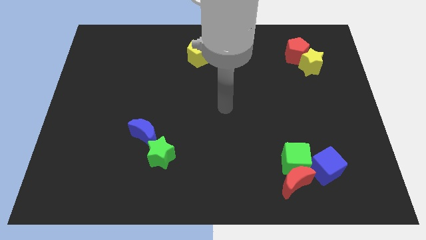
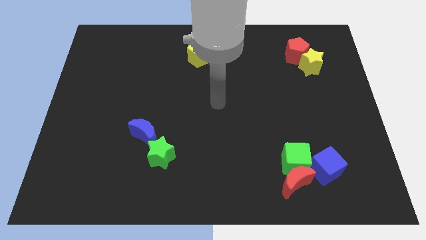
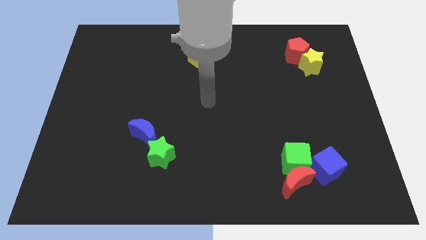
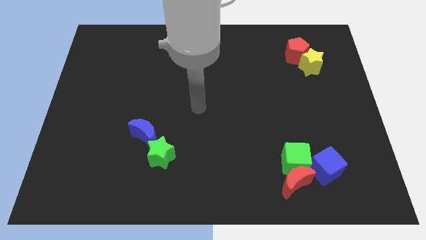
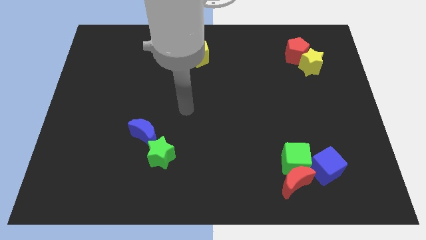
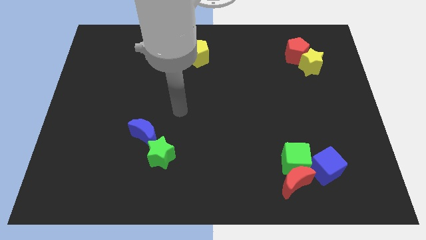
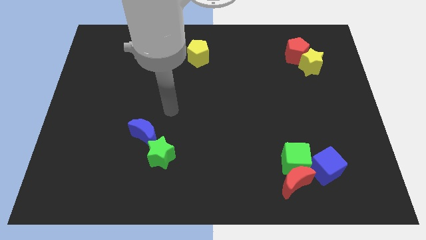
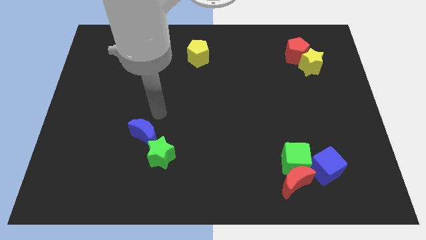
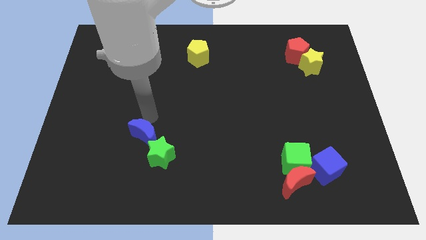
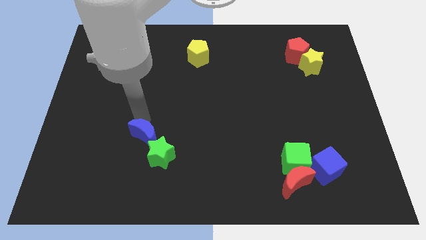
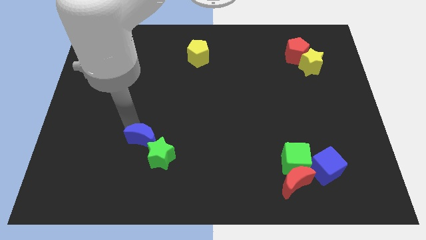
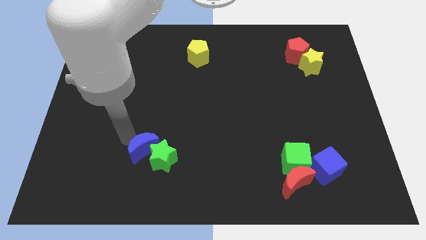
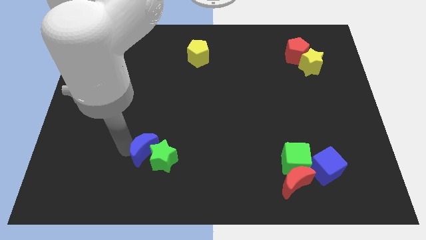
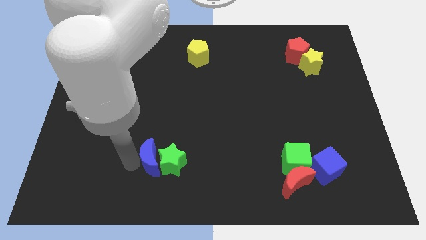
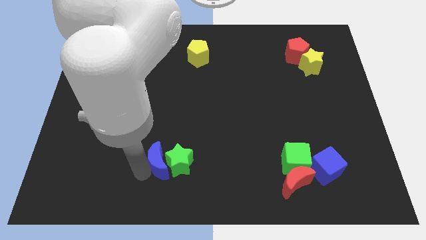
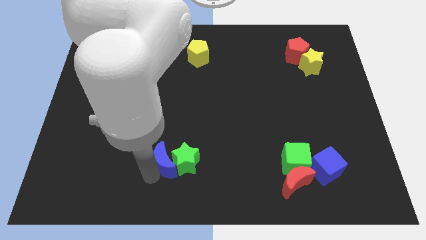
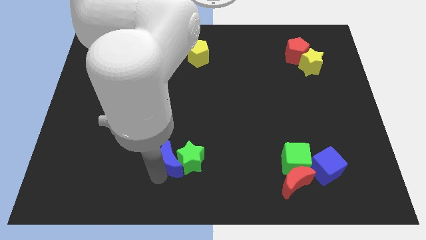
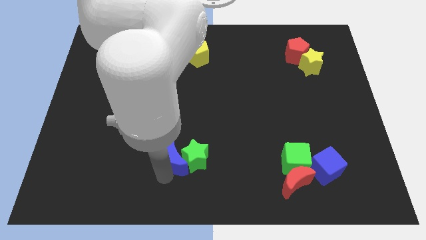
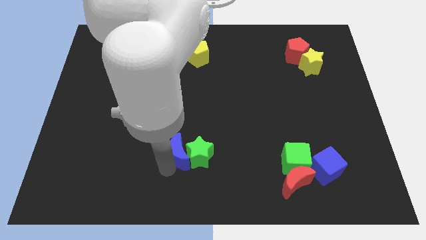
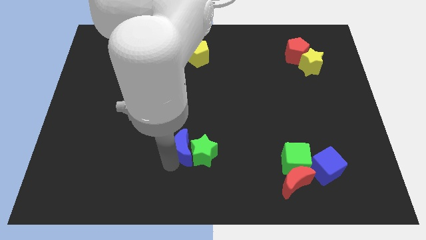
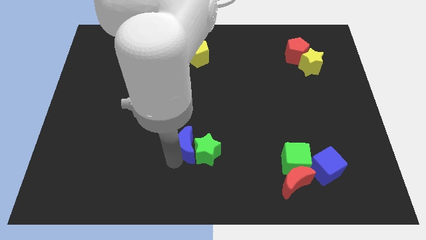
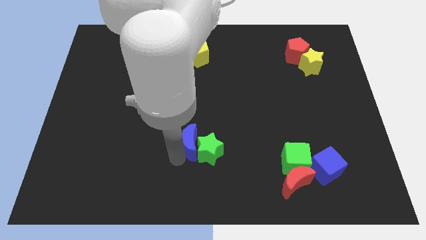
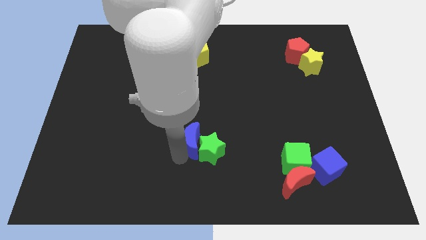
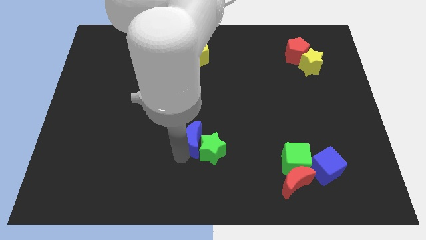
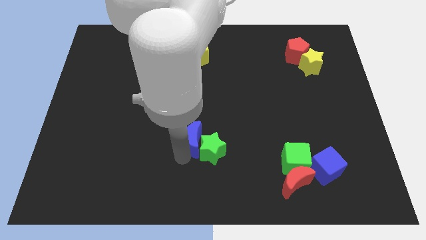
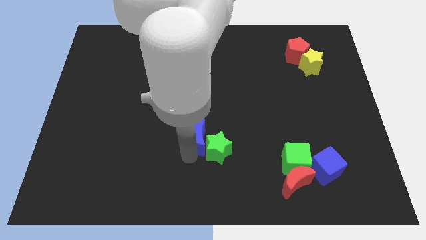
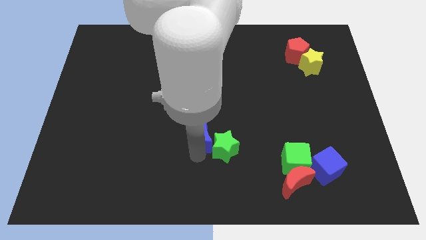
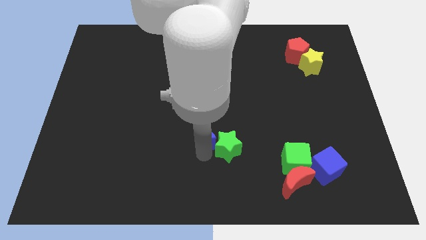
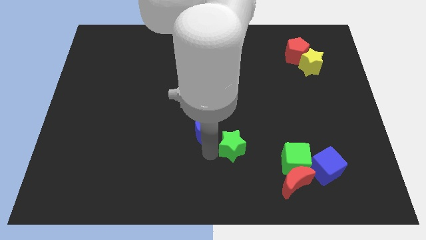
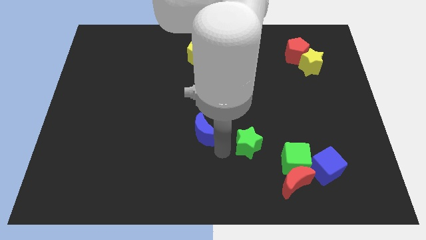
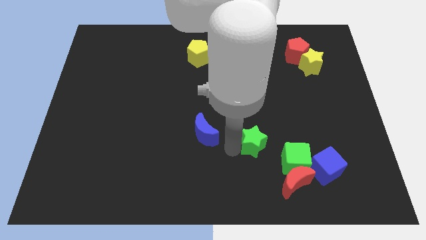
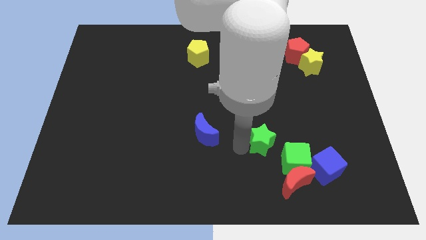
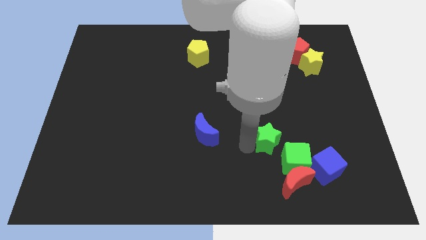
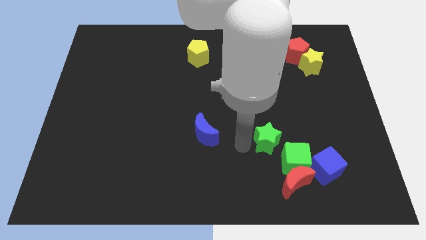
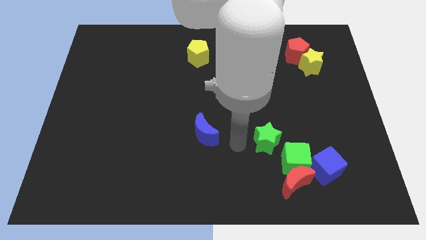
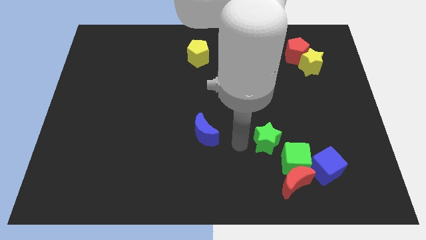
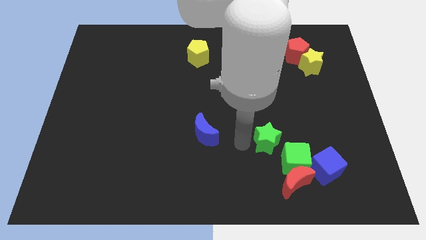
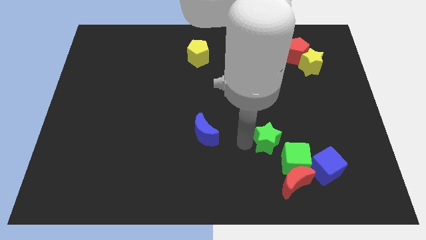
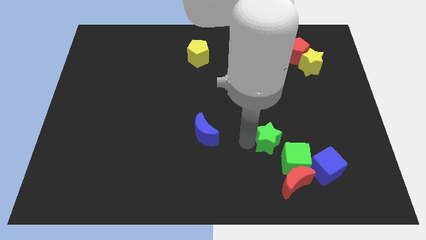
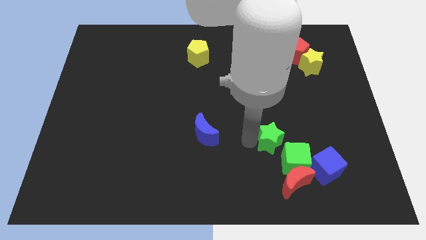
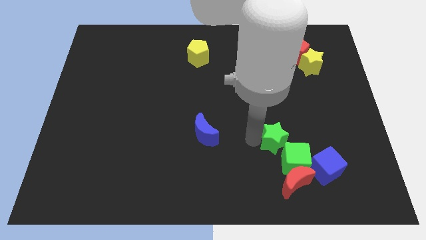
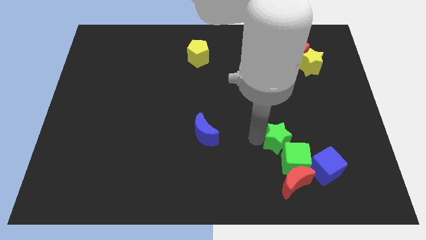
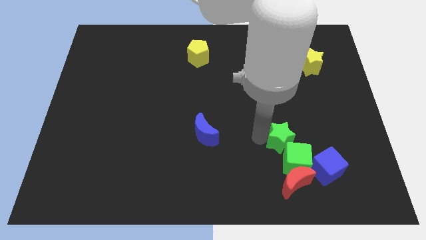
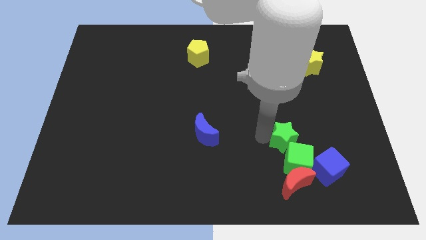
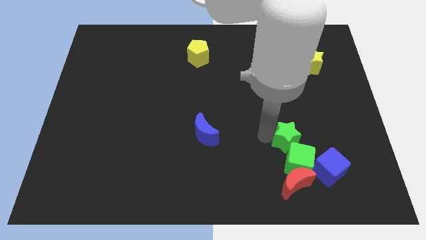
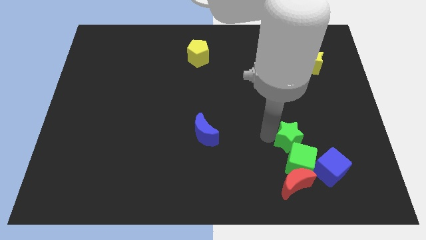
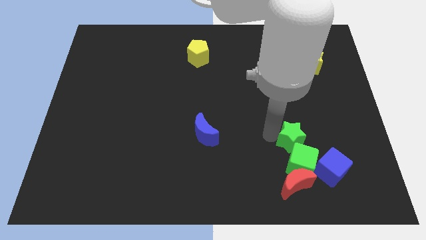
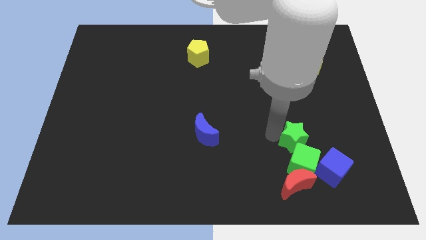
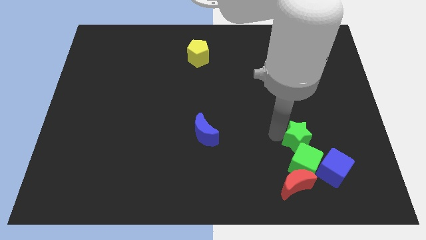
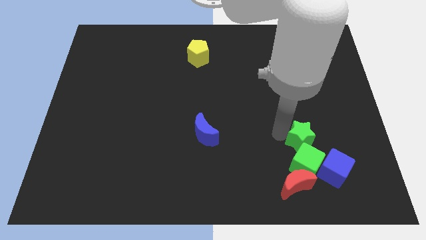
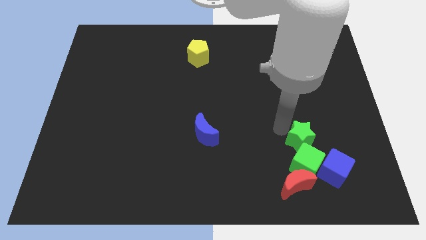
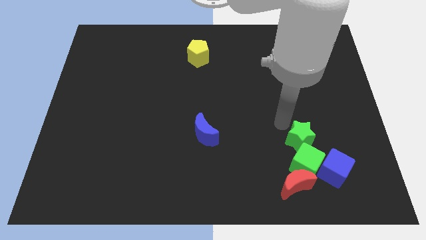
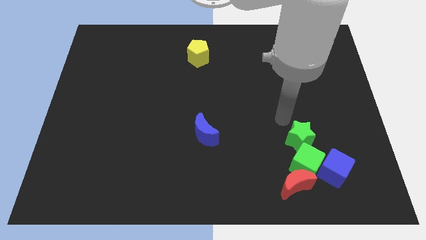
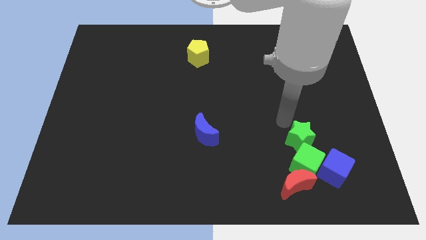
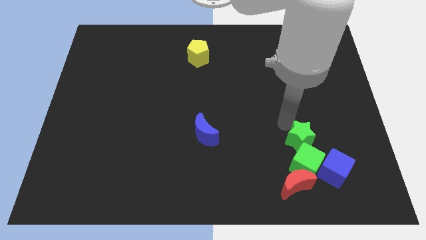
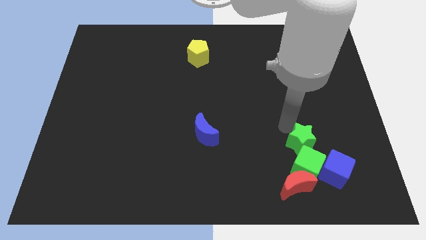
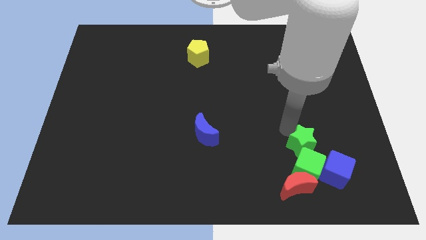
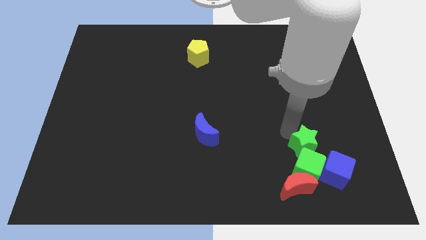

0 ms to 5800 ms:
put the green star to the top right of the red moon
